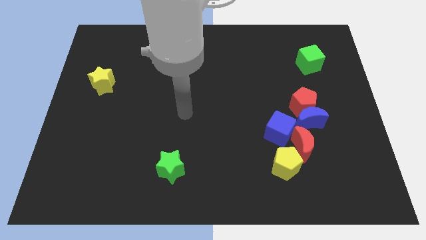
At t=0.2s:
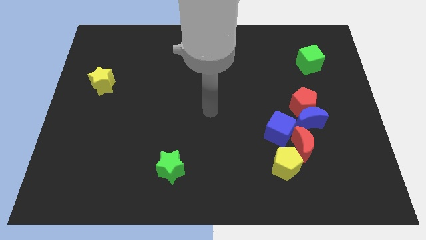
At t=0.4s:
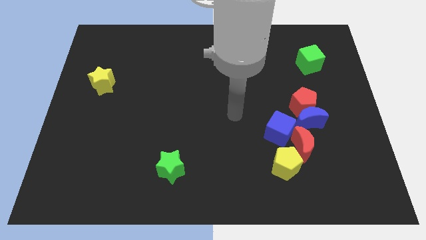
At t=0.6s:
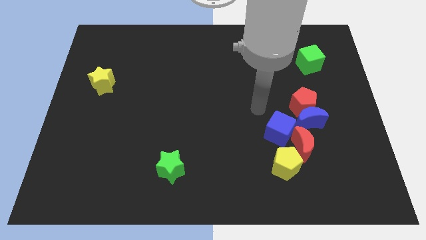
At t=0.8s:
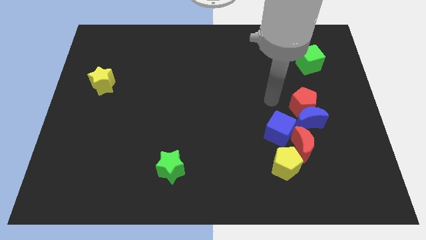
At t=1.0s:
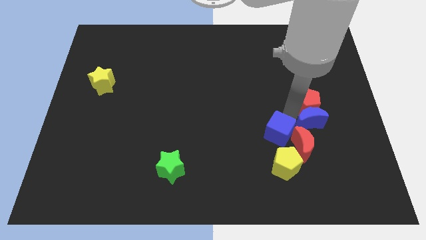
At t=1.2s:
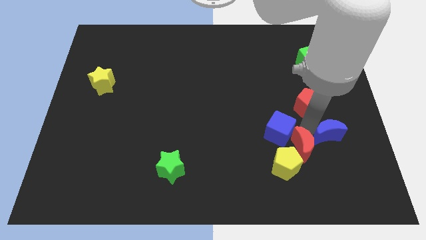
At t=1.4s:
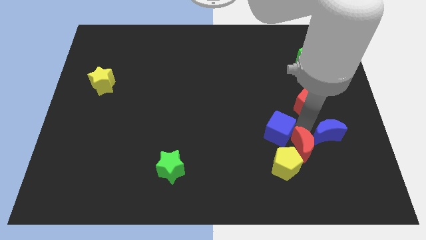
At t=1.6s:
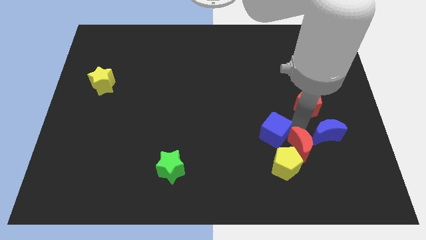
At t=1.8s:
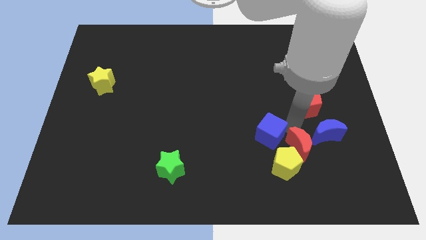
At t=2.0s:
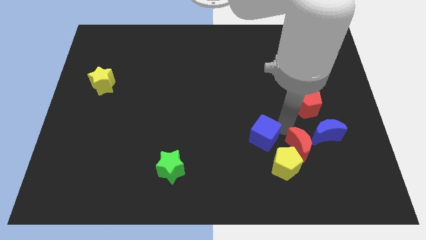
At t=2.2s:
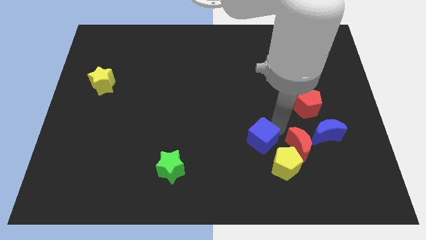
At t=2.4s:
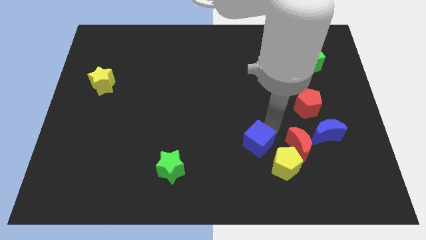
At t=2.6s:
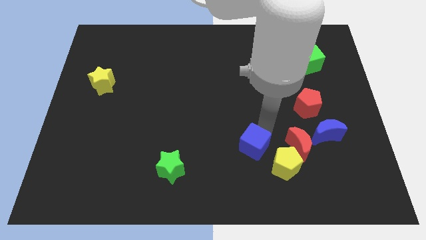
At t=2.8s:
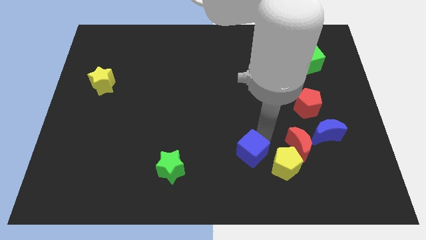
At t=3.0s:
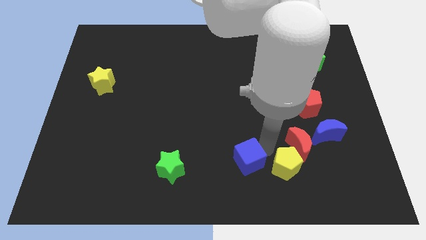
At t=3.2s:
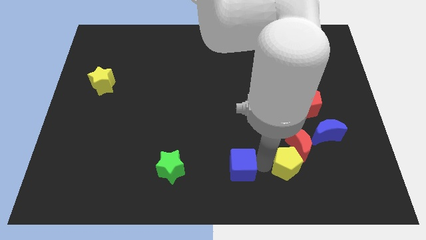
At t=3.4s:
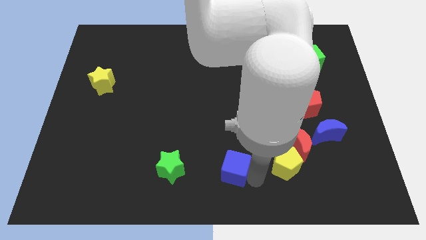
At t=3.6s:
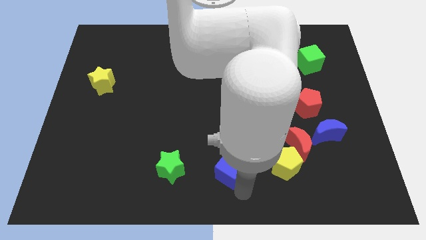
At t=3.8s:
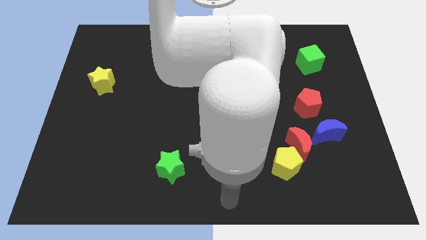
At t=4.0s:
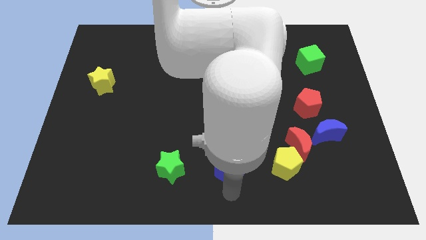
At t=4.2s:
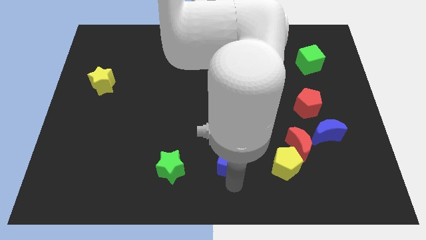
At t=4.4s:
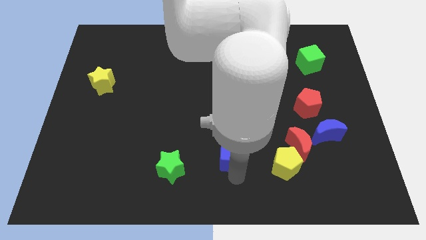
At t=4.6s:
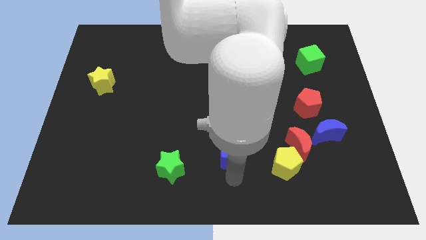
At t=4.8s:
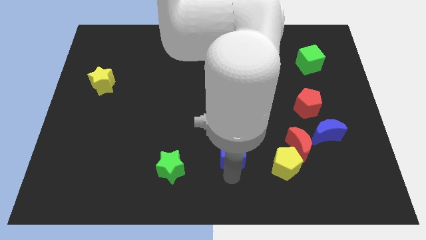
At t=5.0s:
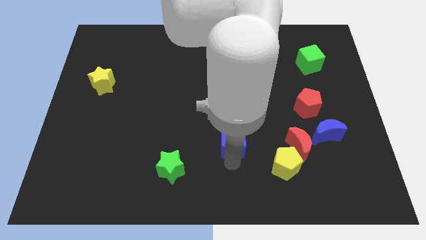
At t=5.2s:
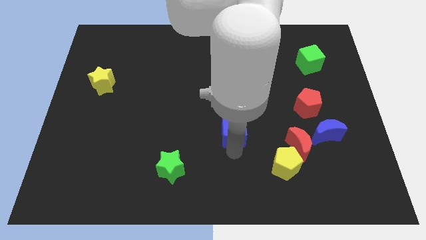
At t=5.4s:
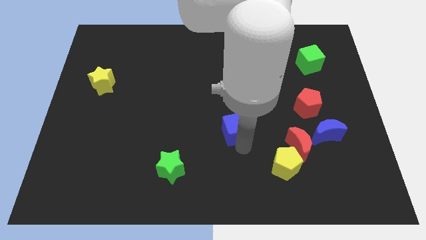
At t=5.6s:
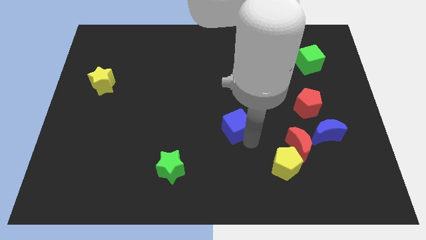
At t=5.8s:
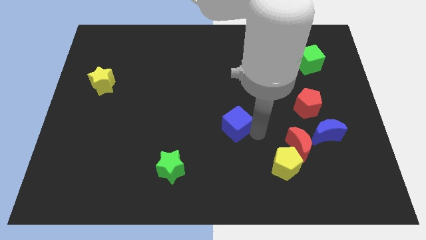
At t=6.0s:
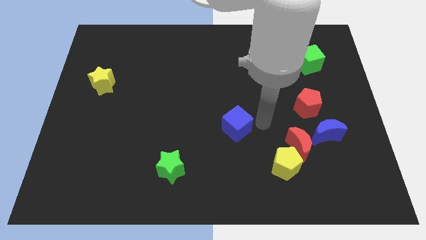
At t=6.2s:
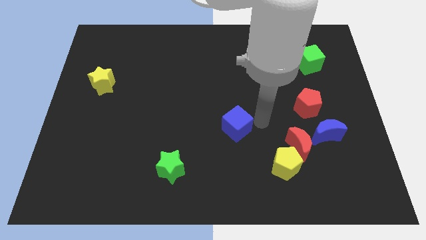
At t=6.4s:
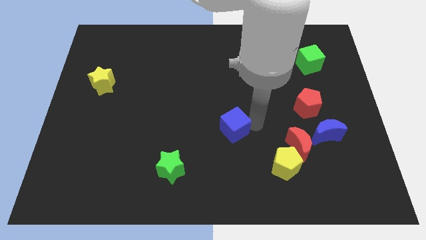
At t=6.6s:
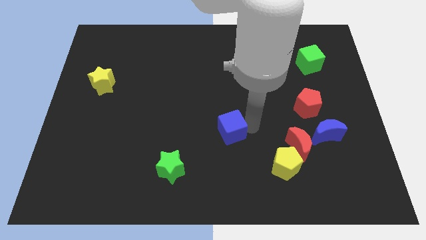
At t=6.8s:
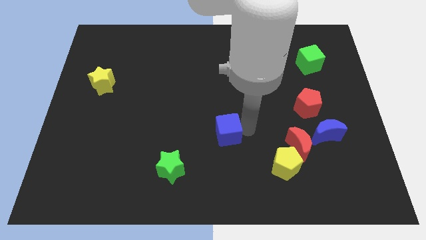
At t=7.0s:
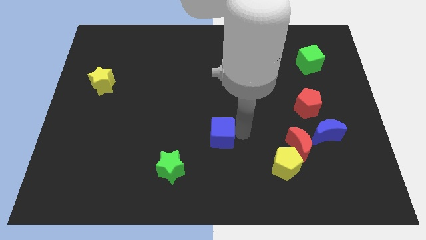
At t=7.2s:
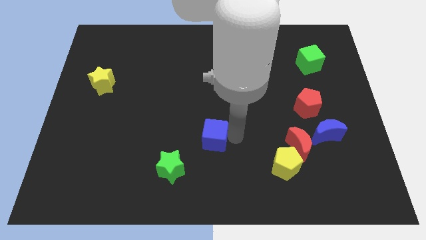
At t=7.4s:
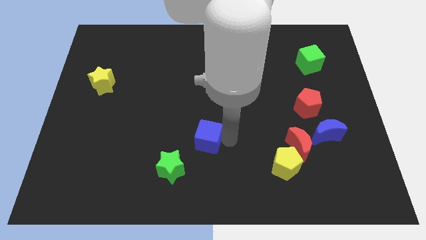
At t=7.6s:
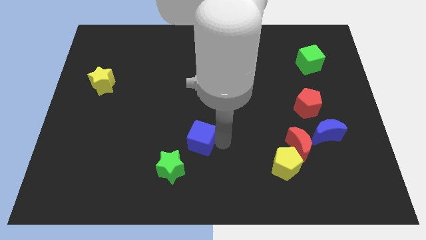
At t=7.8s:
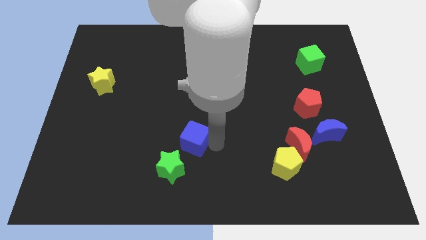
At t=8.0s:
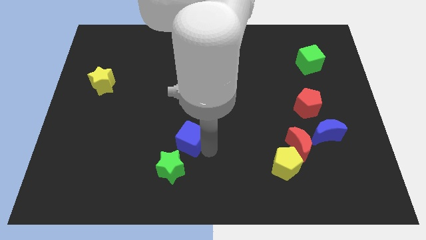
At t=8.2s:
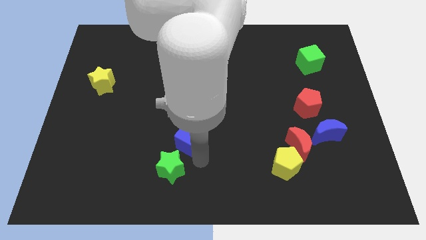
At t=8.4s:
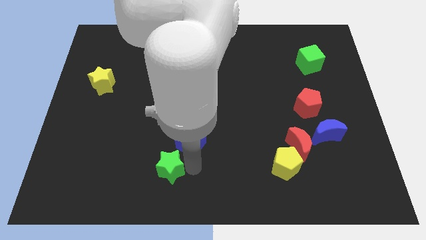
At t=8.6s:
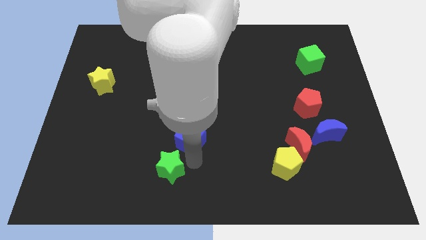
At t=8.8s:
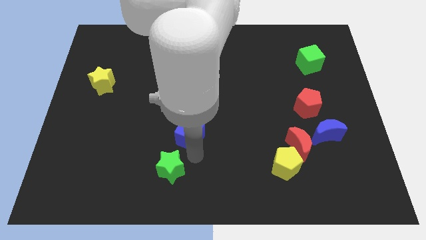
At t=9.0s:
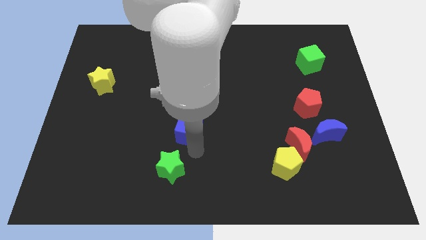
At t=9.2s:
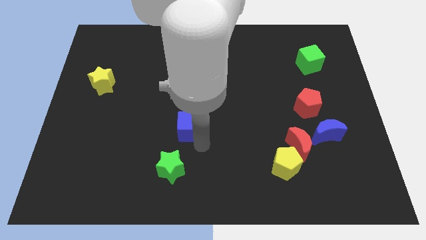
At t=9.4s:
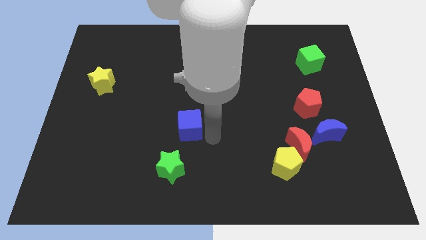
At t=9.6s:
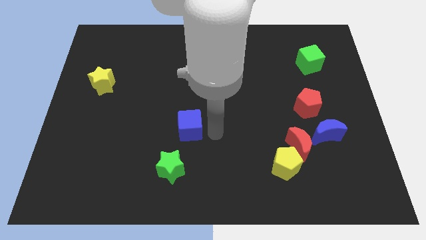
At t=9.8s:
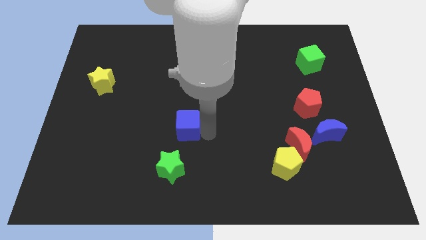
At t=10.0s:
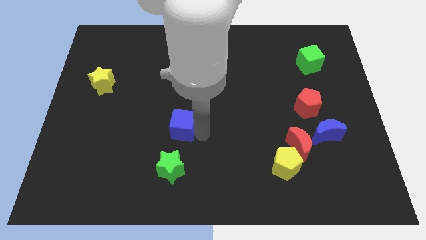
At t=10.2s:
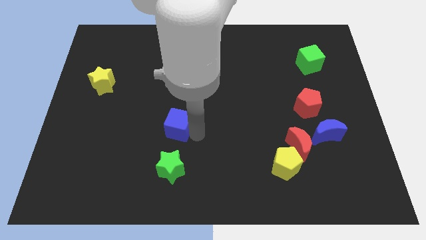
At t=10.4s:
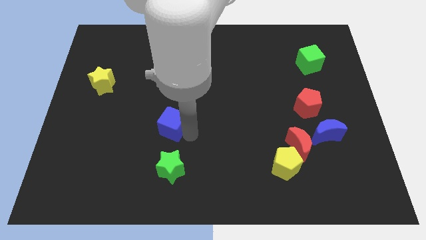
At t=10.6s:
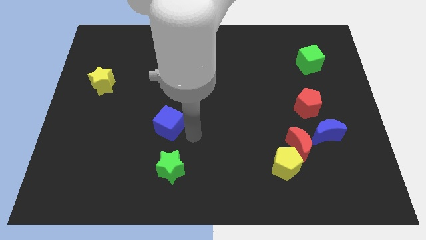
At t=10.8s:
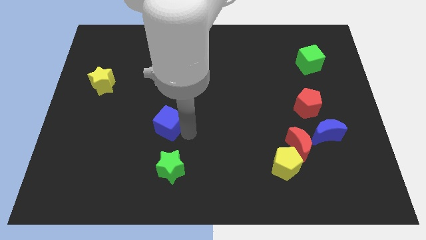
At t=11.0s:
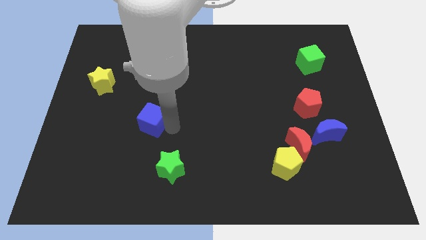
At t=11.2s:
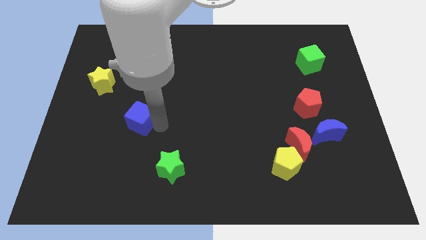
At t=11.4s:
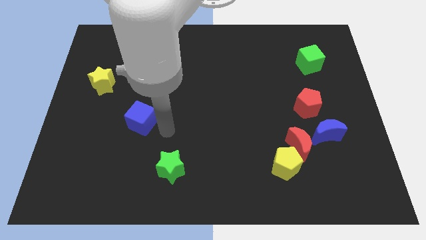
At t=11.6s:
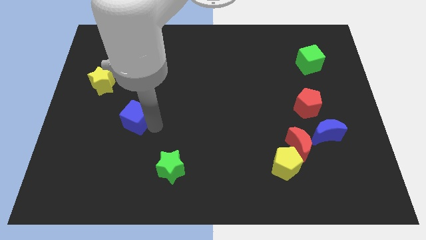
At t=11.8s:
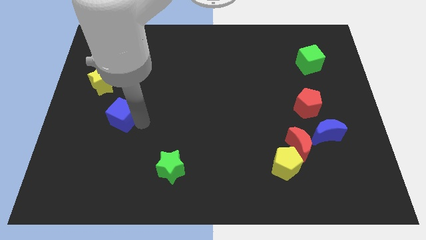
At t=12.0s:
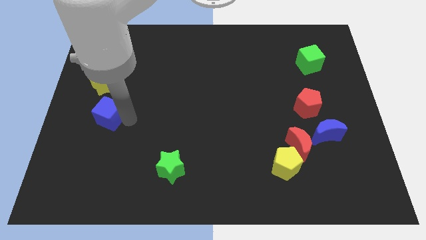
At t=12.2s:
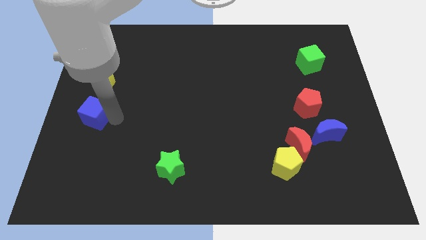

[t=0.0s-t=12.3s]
push the blue cube to the left side of the board
